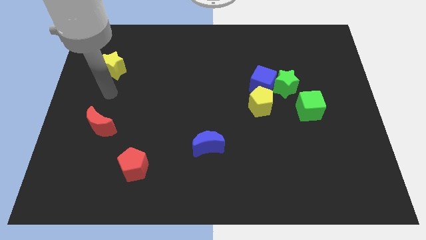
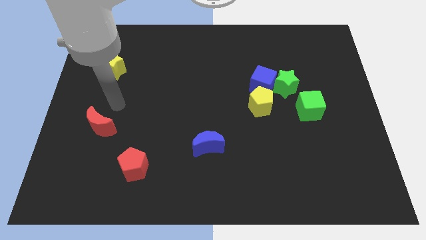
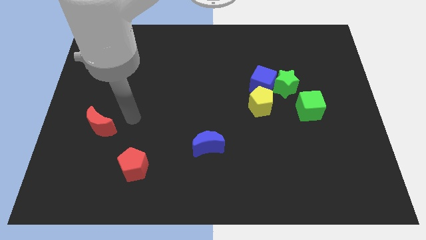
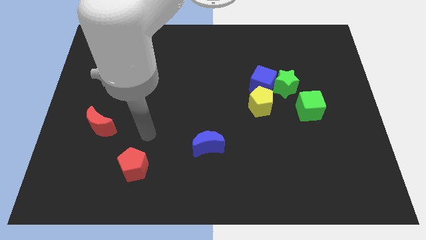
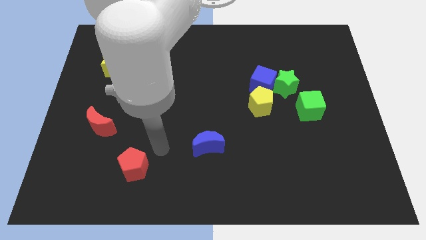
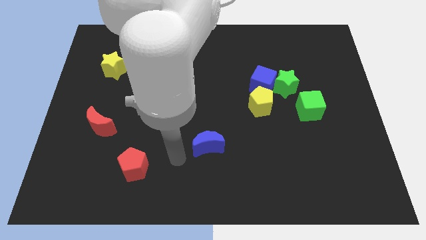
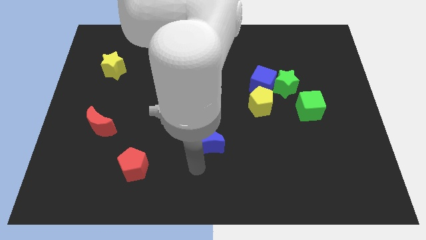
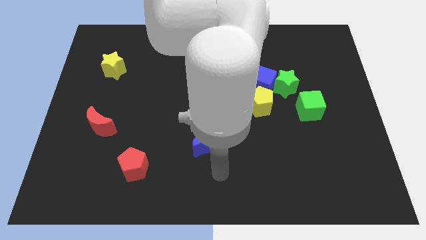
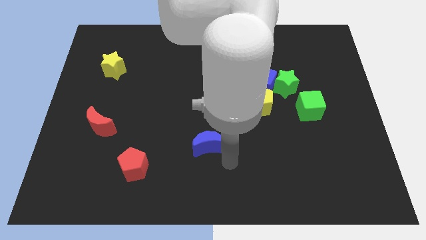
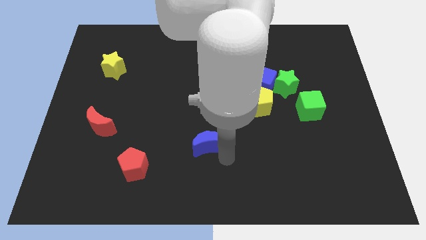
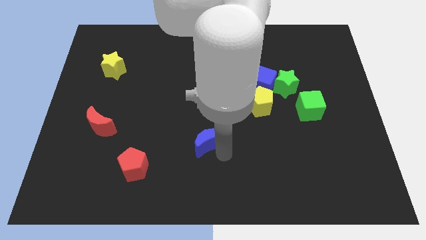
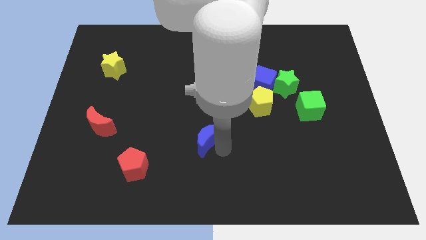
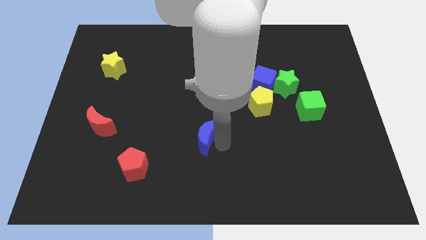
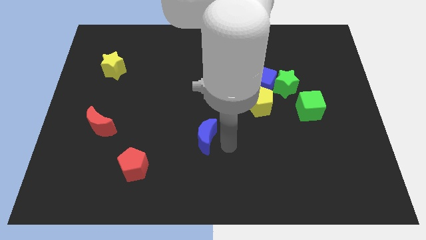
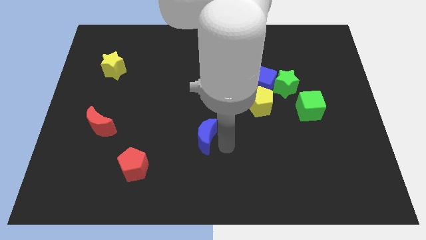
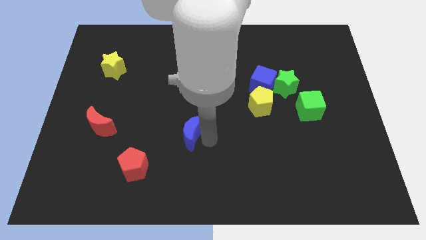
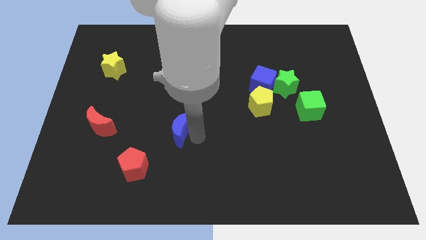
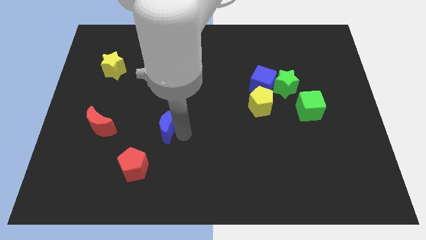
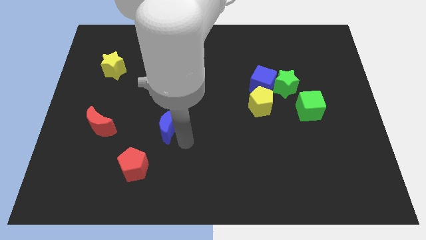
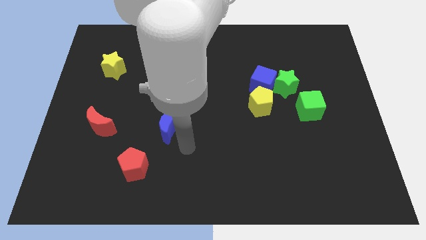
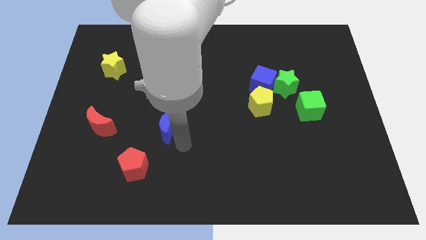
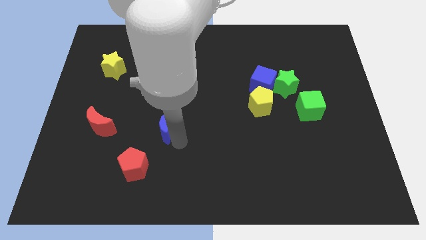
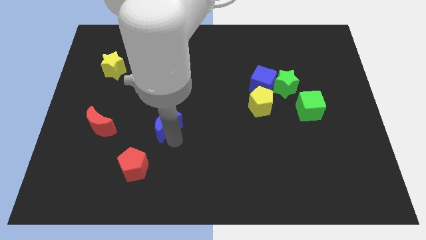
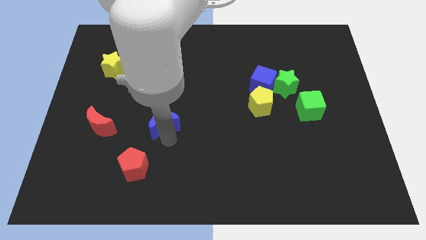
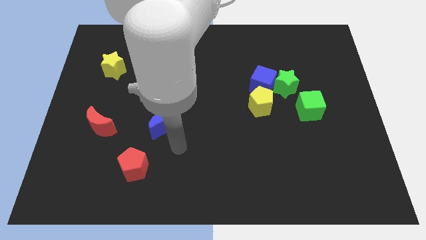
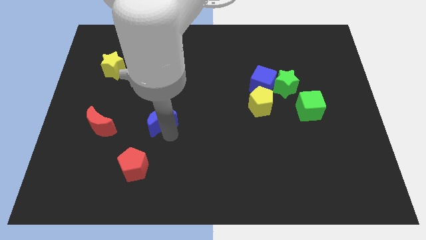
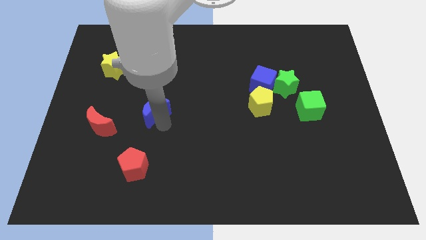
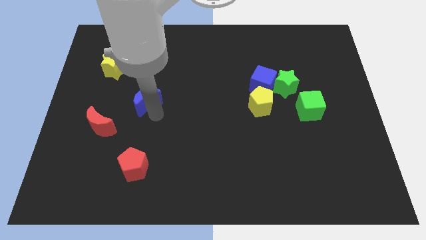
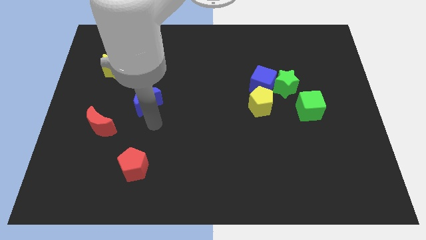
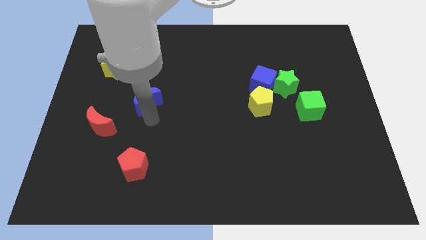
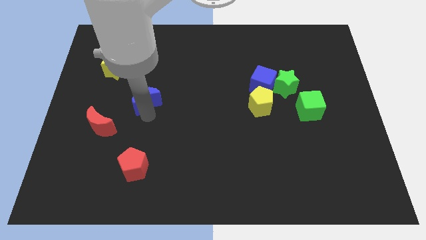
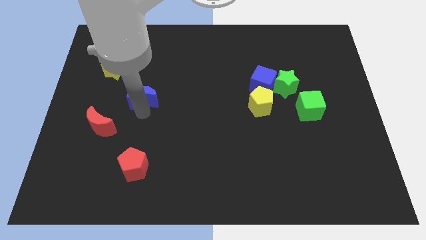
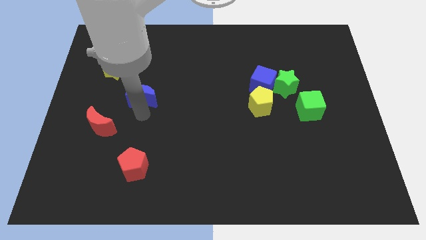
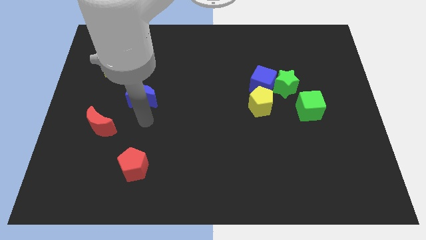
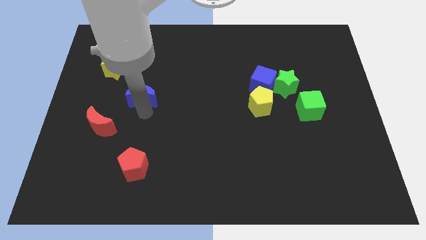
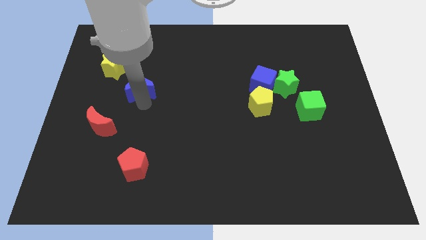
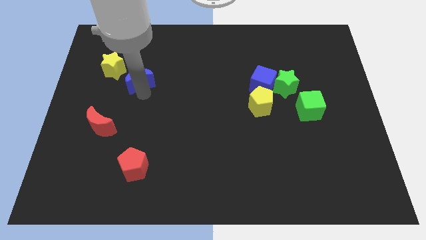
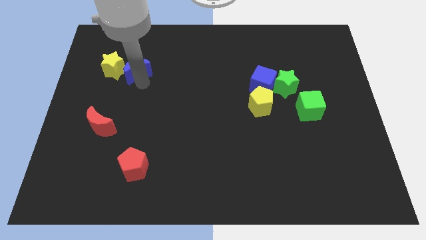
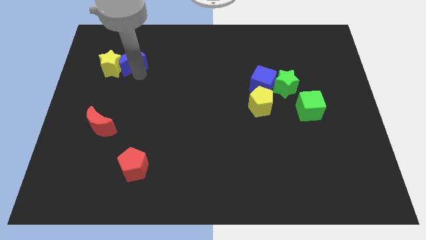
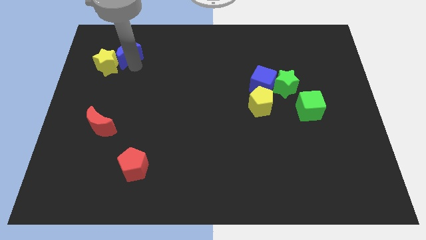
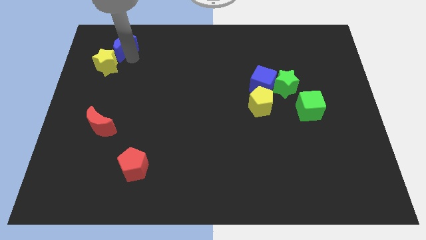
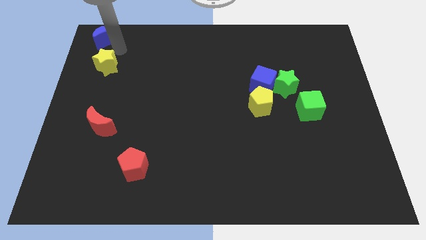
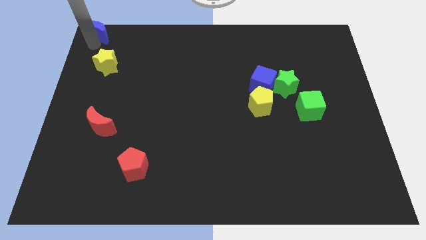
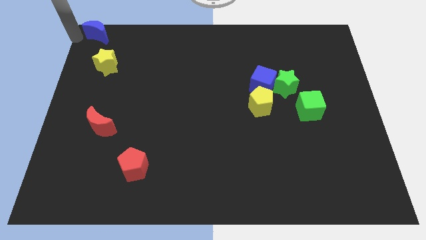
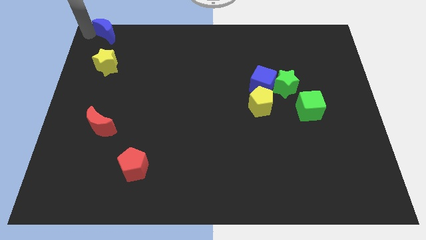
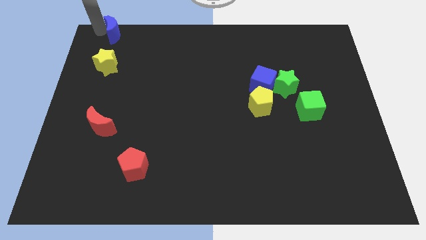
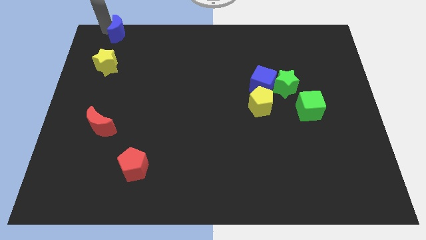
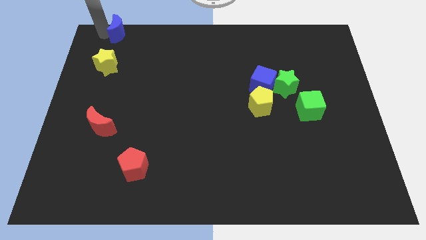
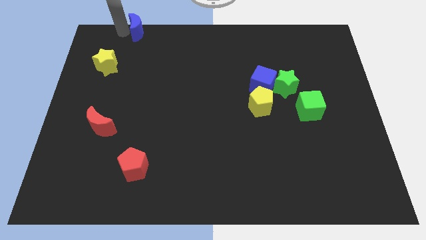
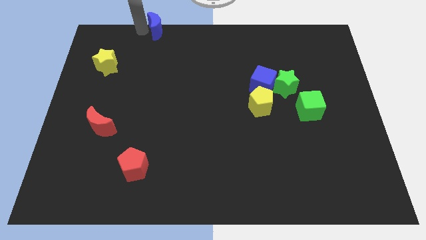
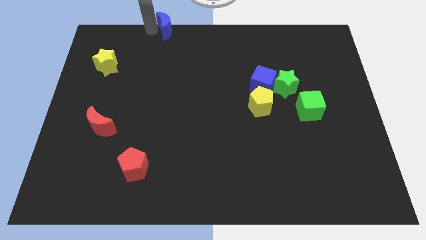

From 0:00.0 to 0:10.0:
move the blue moon to the top

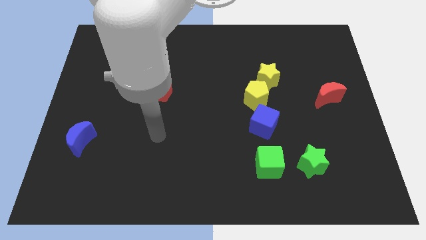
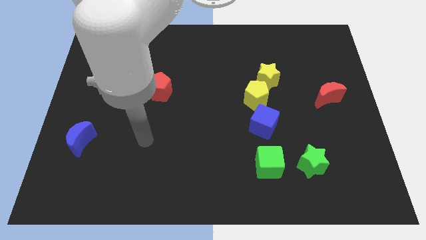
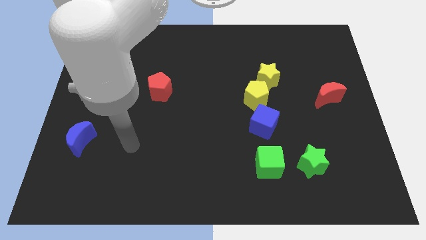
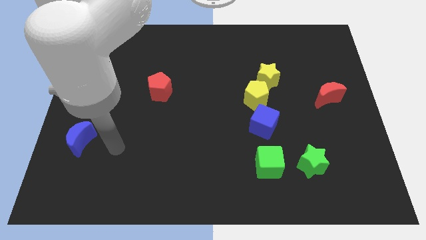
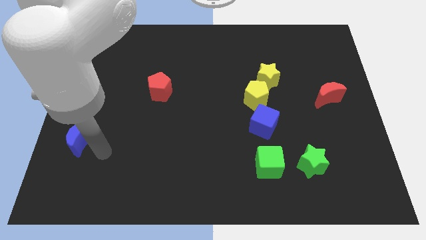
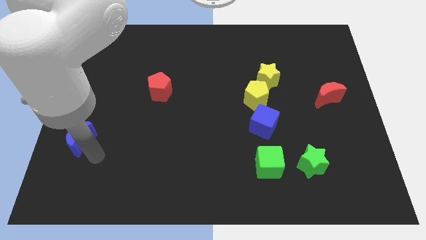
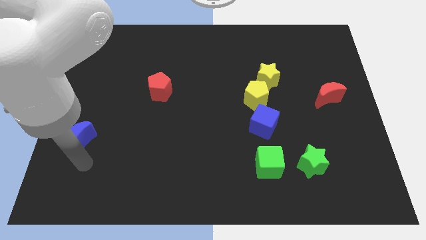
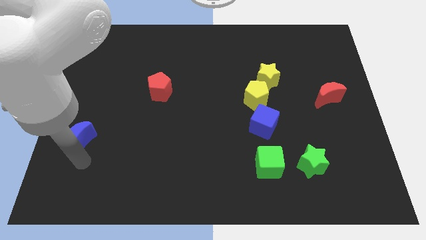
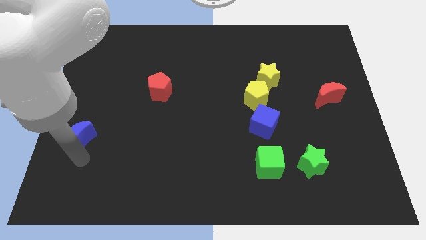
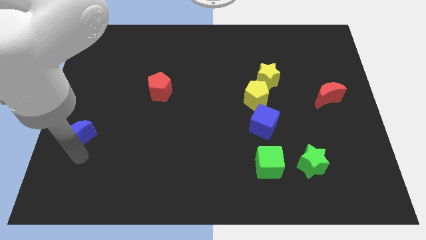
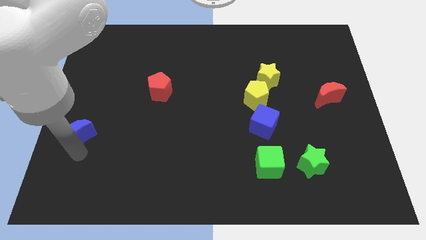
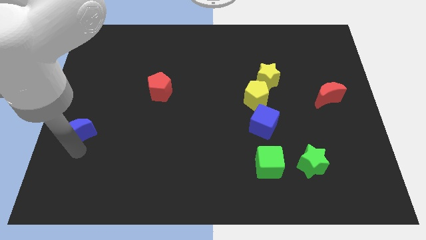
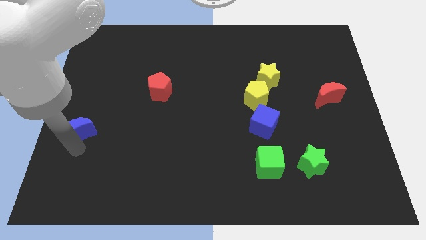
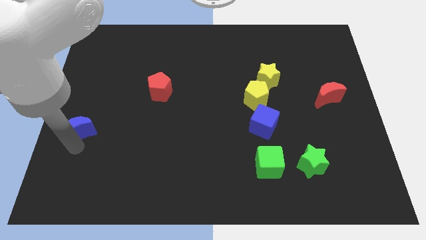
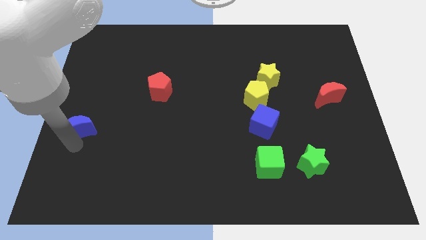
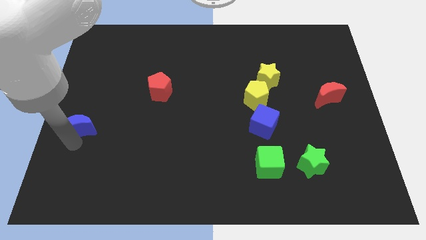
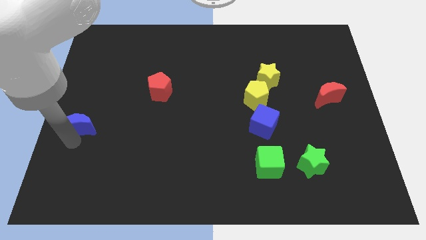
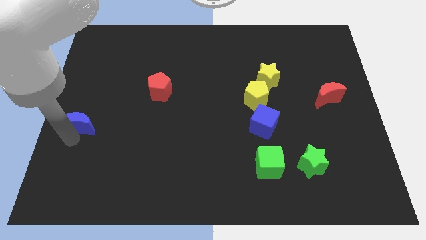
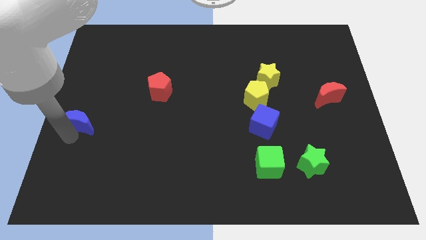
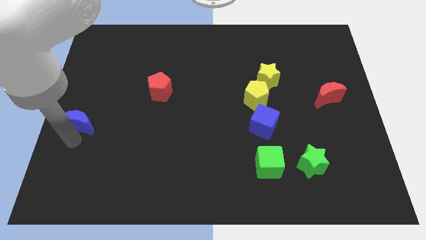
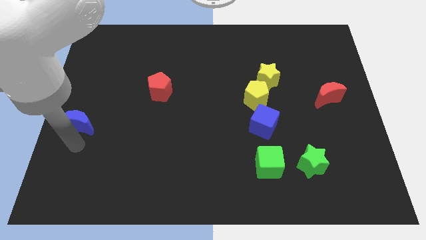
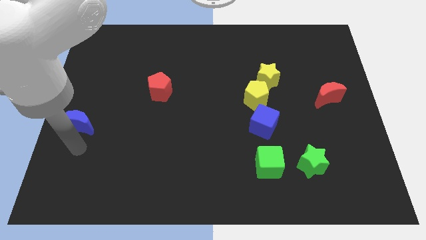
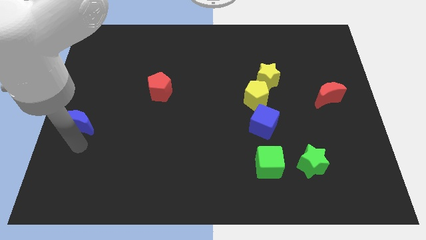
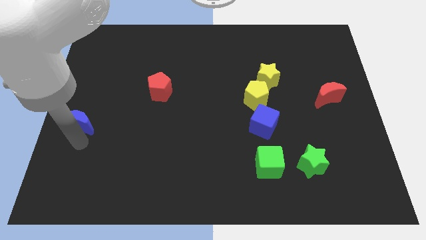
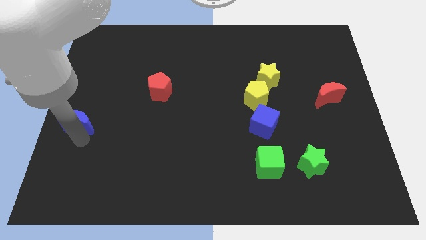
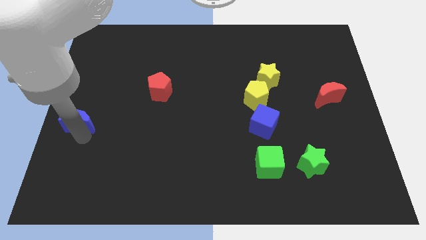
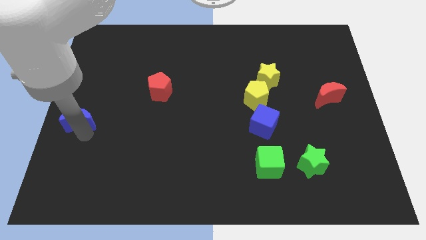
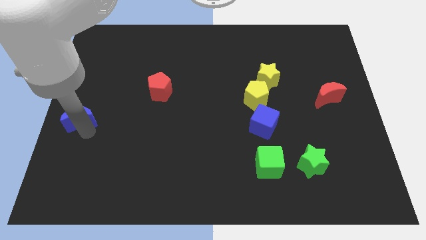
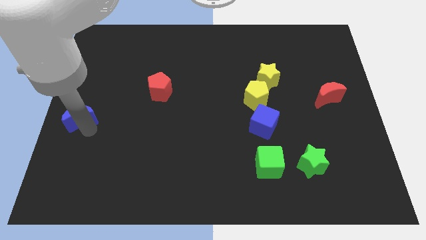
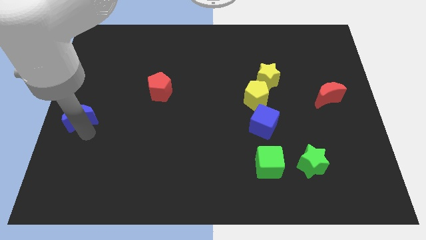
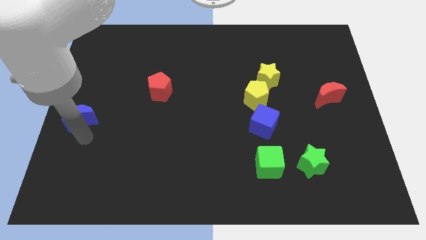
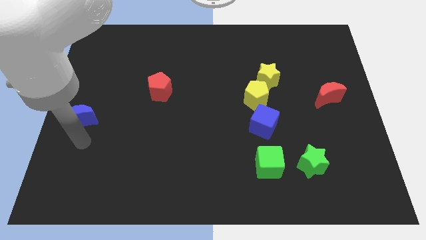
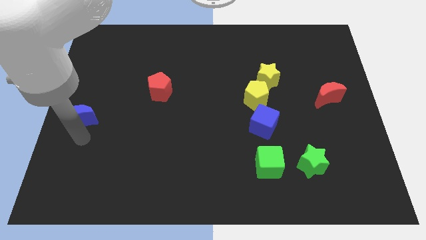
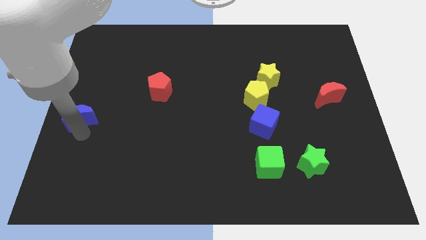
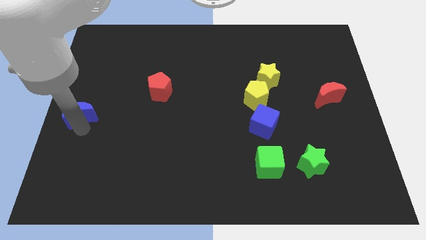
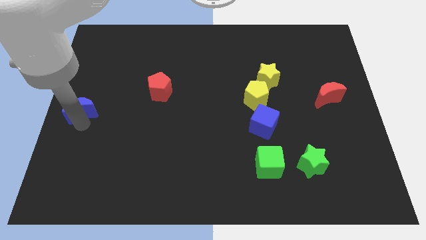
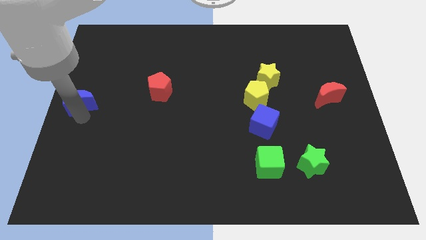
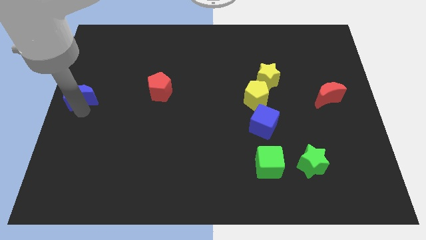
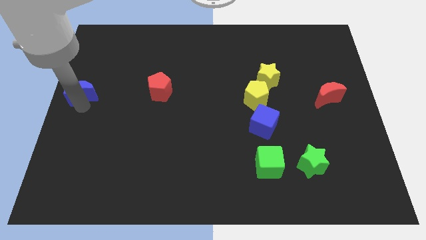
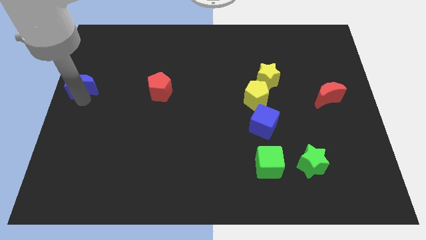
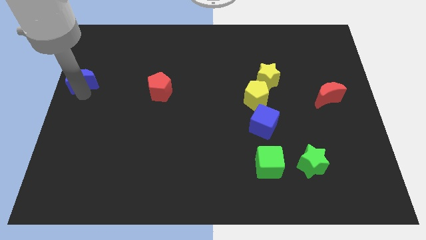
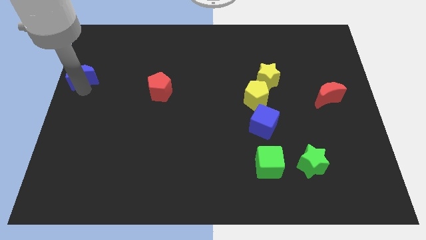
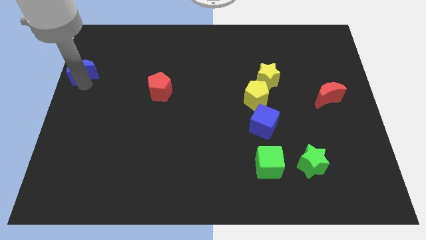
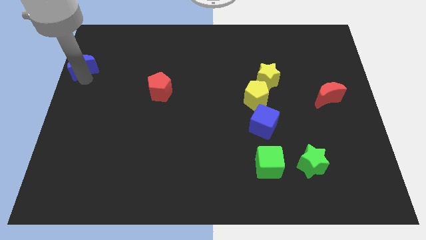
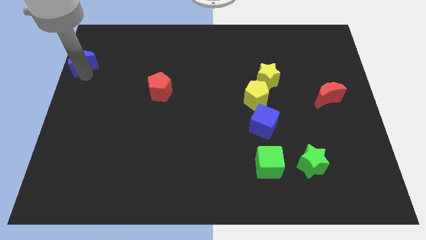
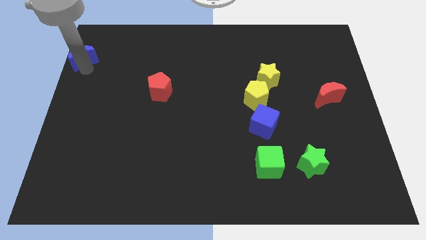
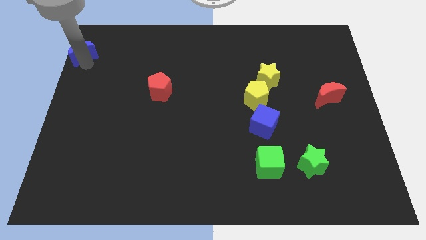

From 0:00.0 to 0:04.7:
slide the blue moon to the upper left corner
